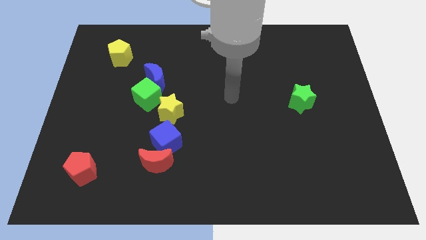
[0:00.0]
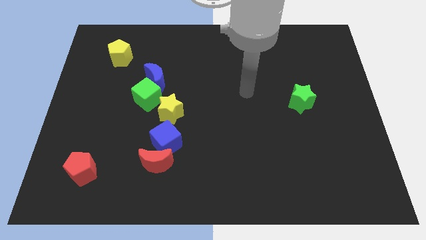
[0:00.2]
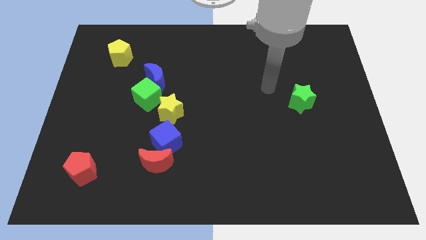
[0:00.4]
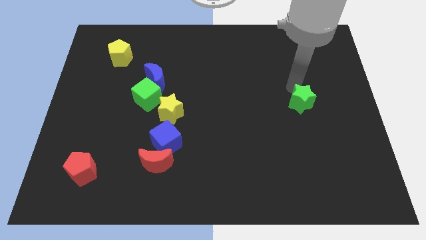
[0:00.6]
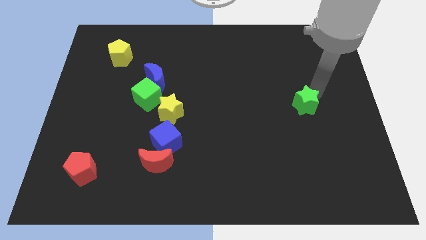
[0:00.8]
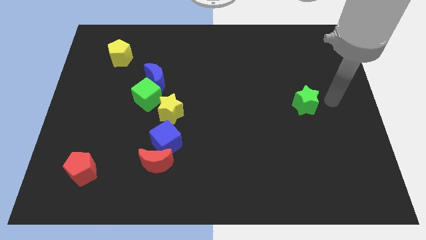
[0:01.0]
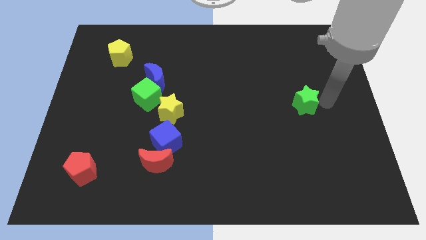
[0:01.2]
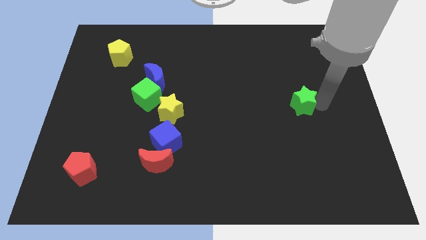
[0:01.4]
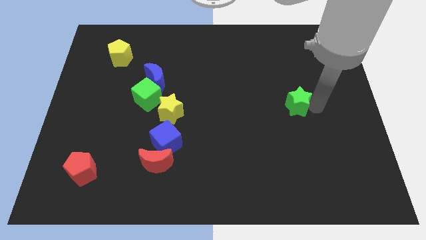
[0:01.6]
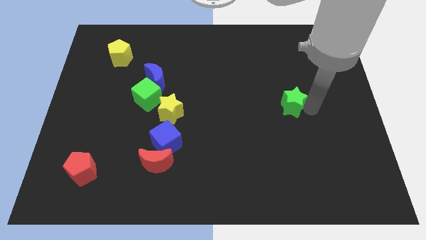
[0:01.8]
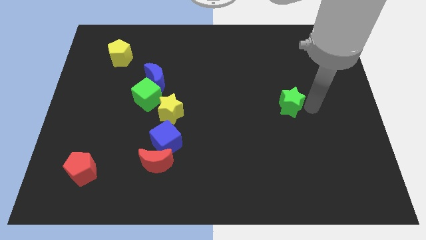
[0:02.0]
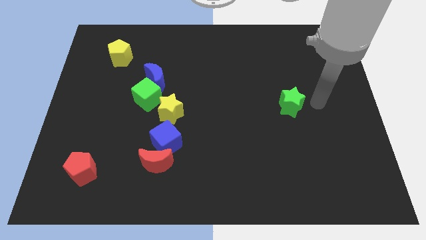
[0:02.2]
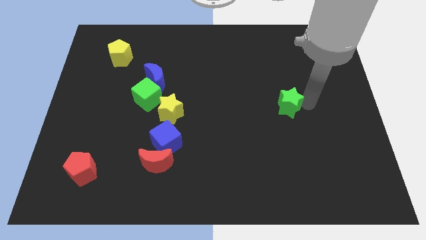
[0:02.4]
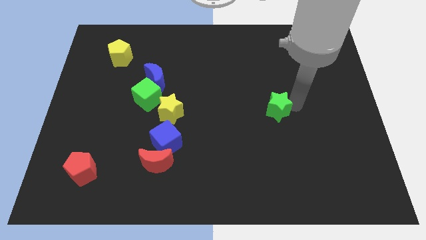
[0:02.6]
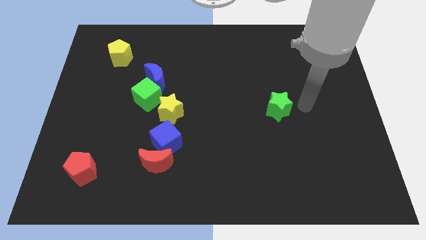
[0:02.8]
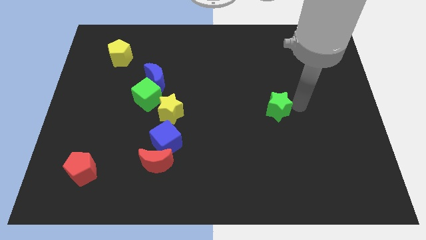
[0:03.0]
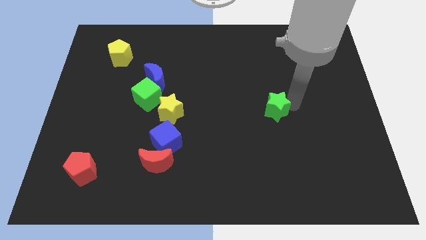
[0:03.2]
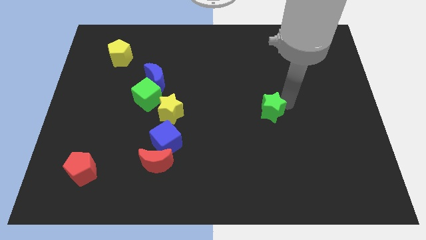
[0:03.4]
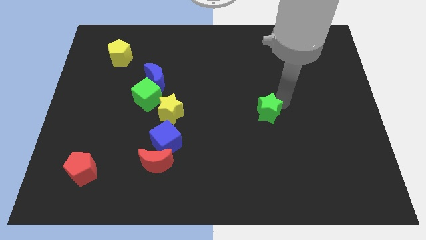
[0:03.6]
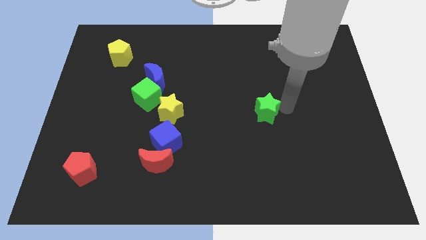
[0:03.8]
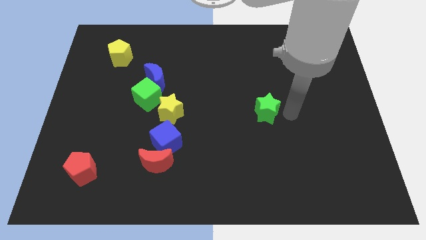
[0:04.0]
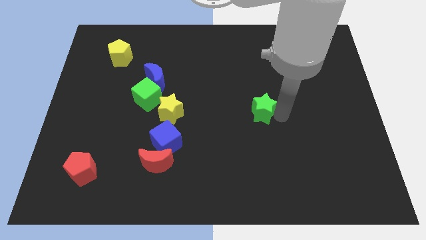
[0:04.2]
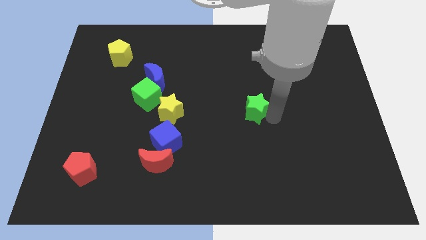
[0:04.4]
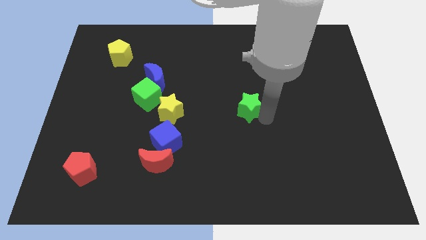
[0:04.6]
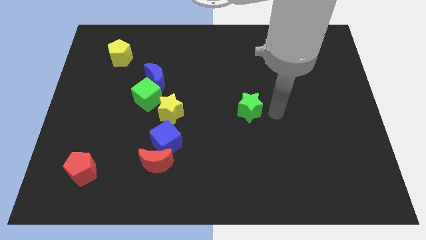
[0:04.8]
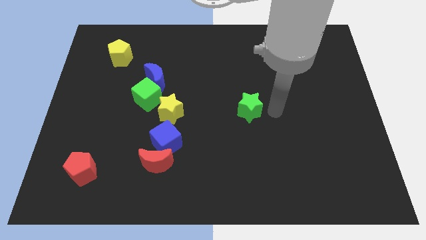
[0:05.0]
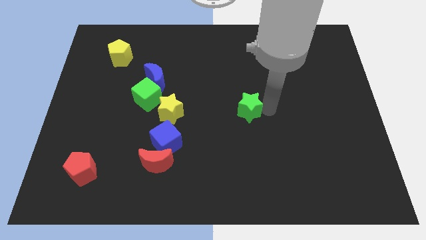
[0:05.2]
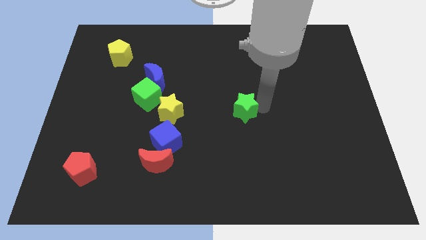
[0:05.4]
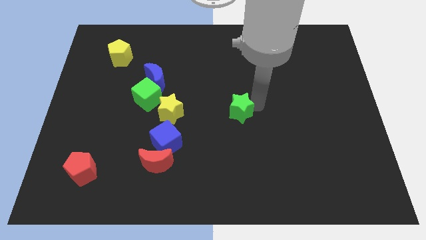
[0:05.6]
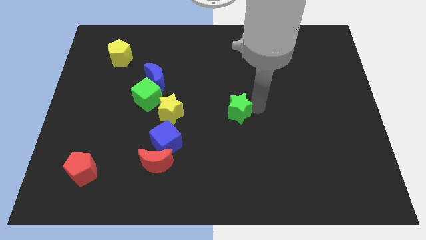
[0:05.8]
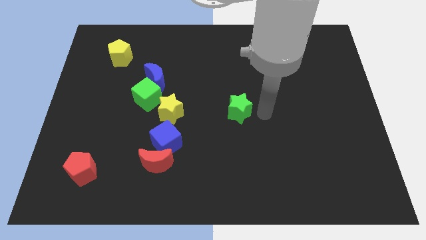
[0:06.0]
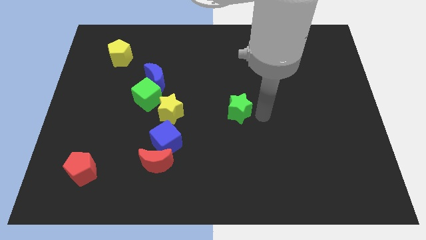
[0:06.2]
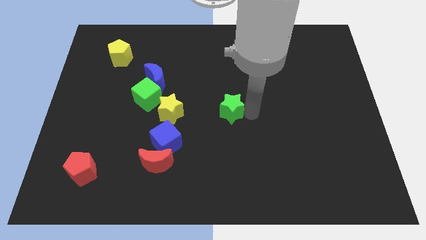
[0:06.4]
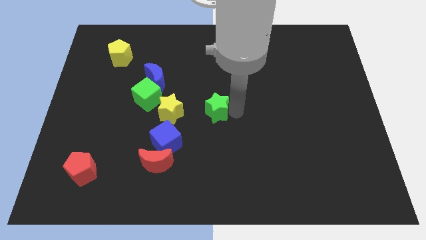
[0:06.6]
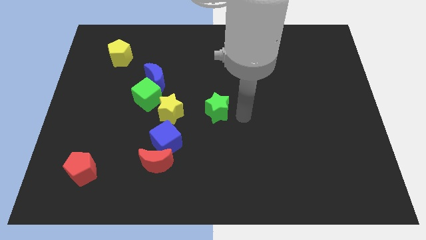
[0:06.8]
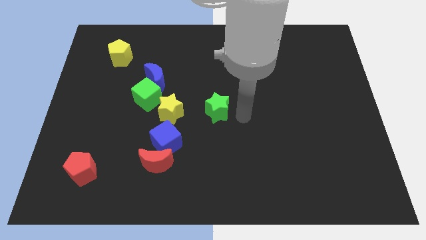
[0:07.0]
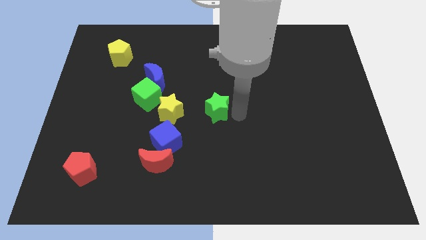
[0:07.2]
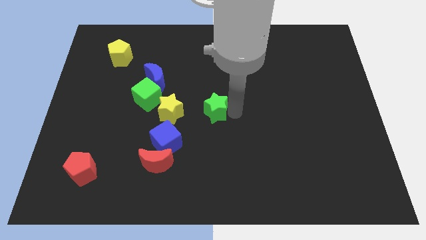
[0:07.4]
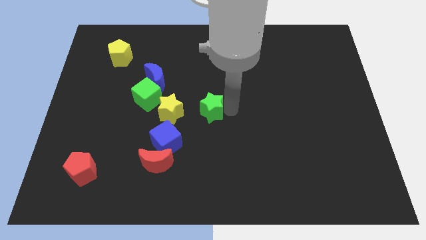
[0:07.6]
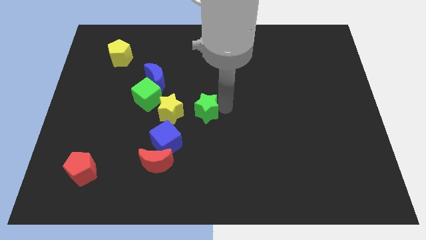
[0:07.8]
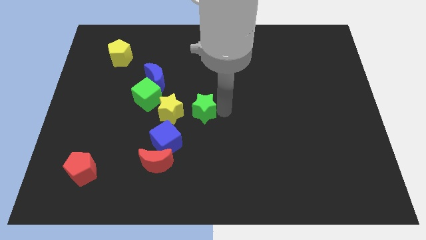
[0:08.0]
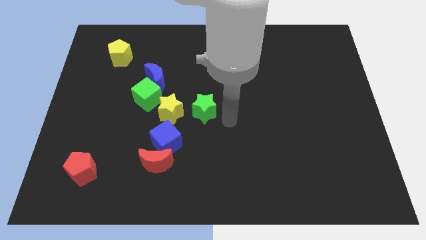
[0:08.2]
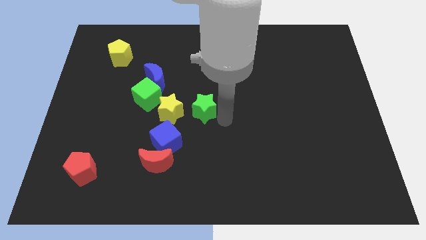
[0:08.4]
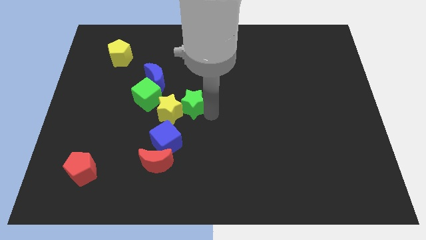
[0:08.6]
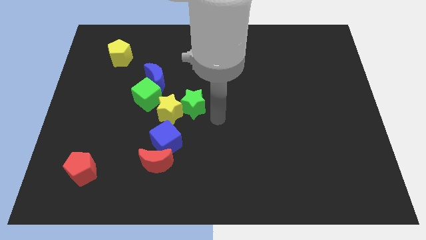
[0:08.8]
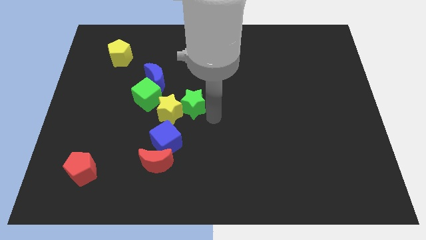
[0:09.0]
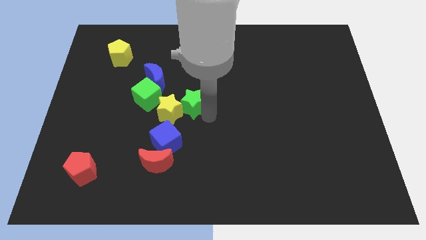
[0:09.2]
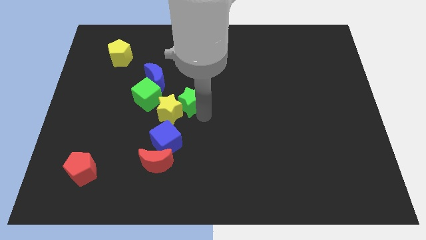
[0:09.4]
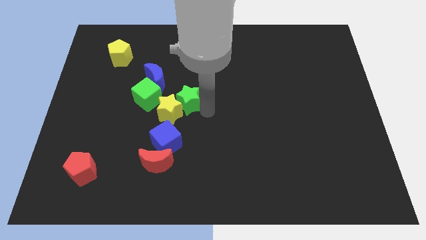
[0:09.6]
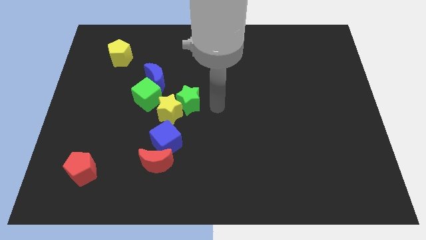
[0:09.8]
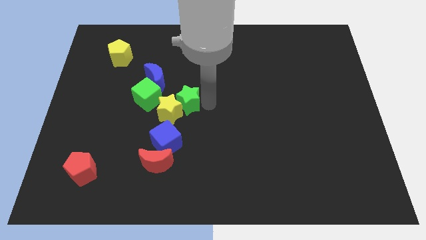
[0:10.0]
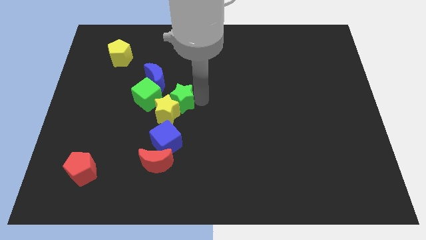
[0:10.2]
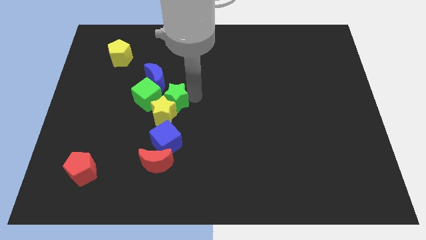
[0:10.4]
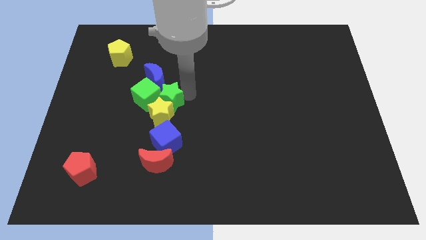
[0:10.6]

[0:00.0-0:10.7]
put the green star close to the green cube

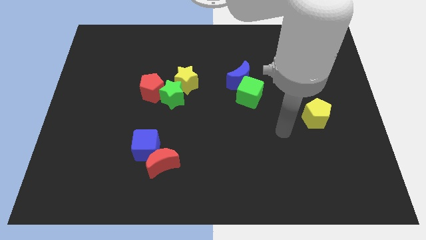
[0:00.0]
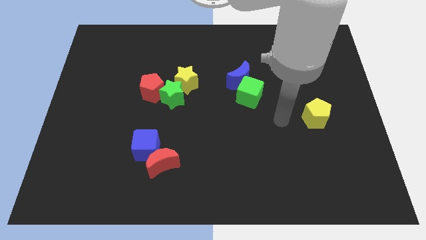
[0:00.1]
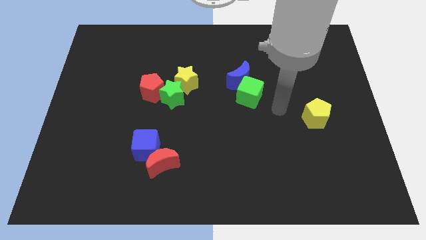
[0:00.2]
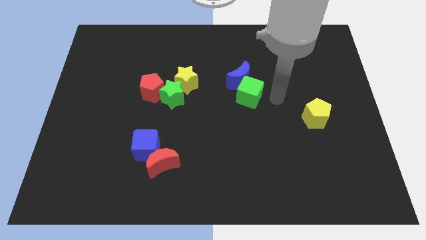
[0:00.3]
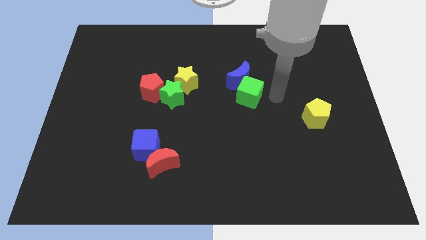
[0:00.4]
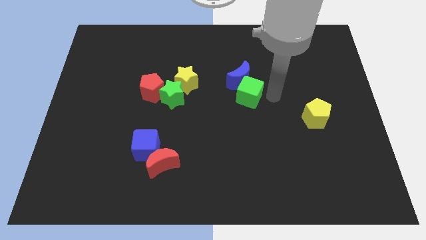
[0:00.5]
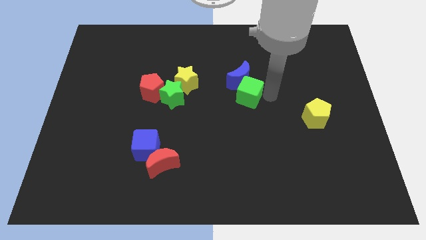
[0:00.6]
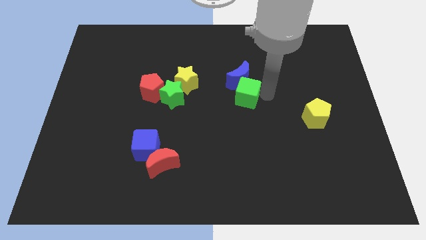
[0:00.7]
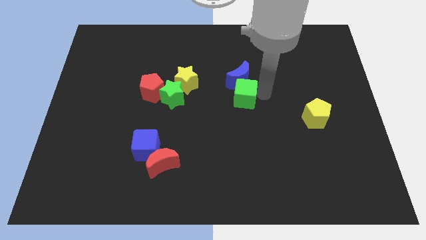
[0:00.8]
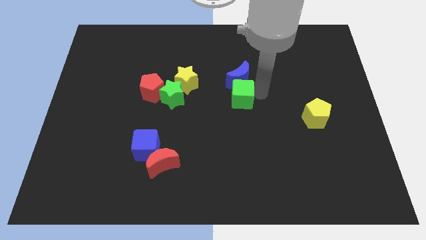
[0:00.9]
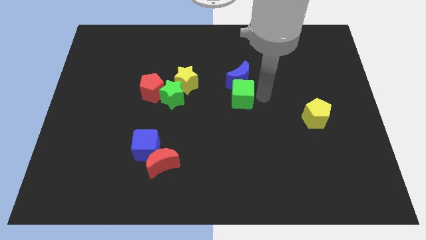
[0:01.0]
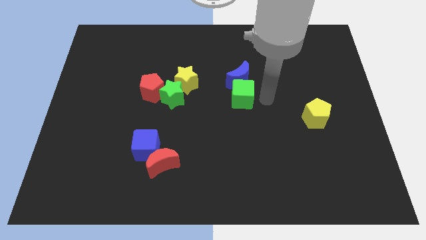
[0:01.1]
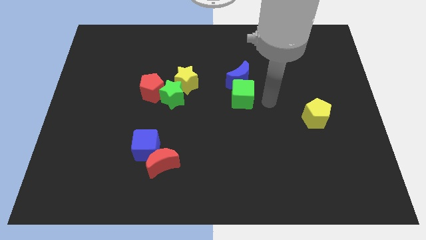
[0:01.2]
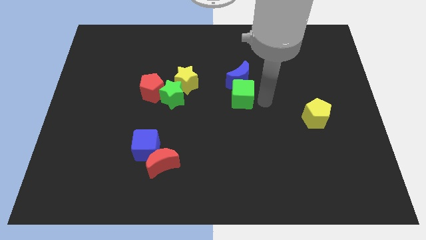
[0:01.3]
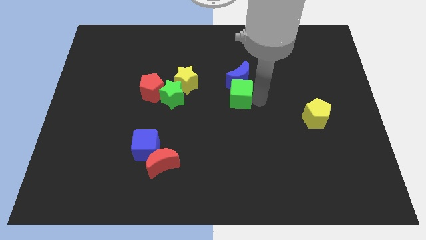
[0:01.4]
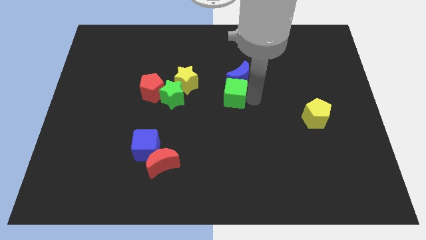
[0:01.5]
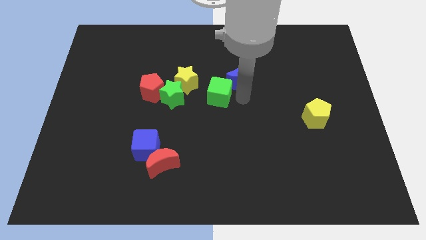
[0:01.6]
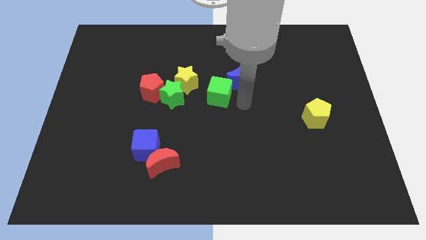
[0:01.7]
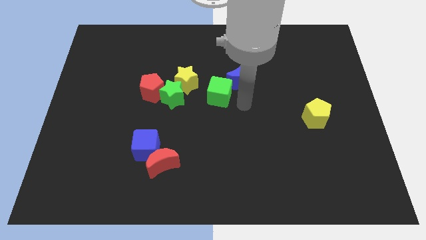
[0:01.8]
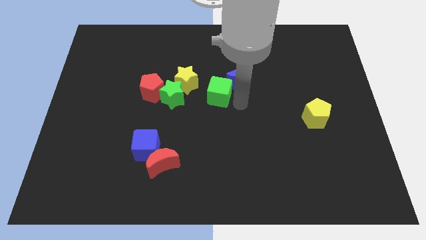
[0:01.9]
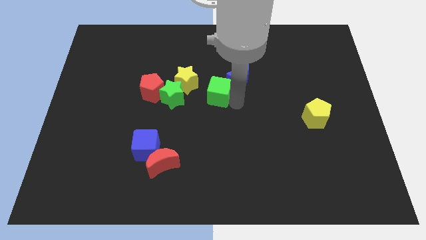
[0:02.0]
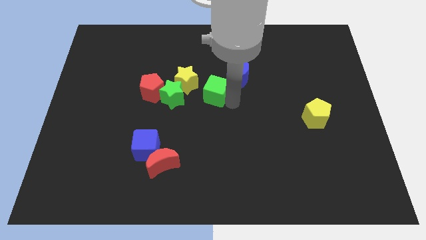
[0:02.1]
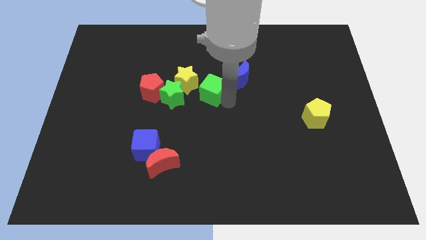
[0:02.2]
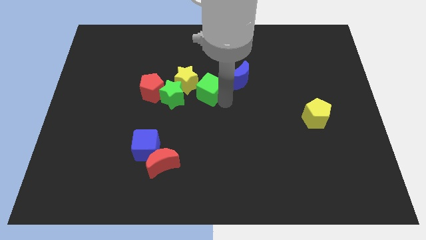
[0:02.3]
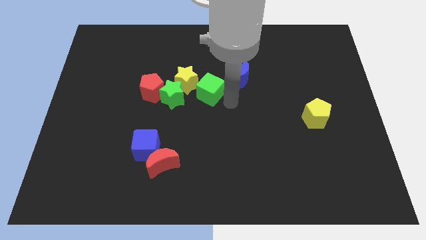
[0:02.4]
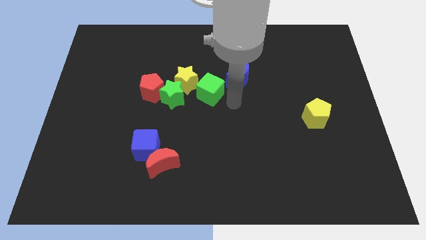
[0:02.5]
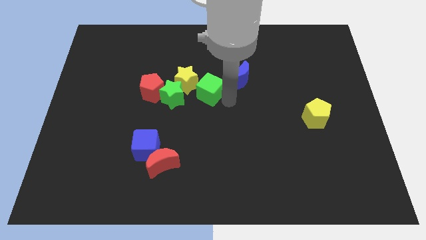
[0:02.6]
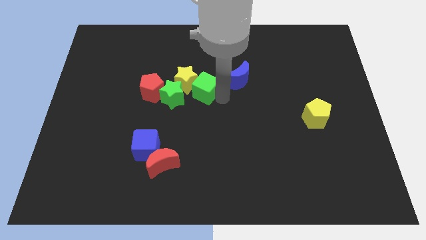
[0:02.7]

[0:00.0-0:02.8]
push the green cube to the yellow star
